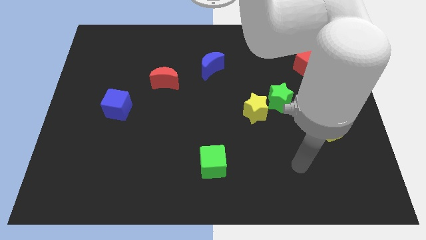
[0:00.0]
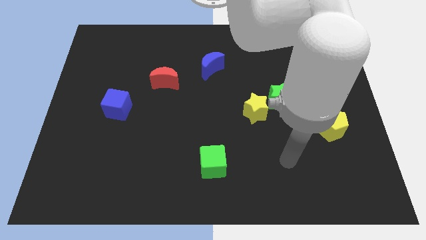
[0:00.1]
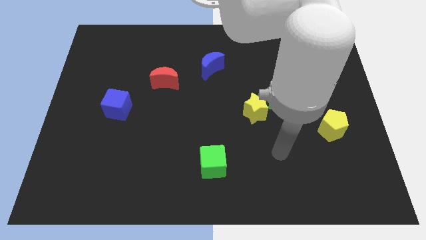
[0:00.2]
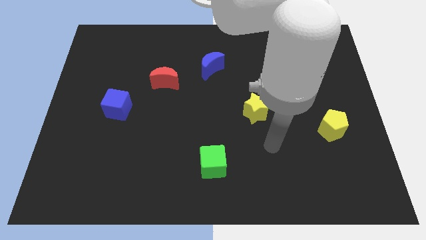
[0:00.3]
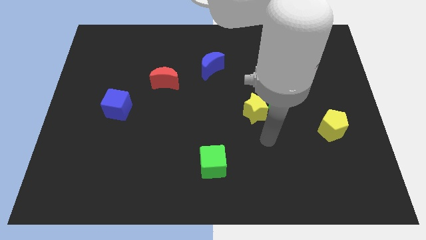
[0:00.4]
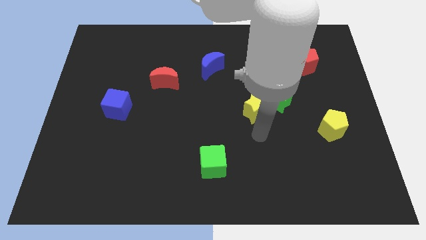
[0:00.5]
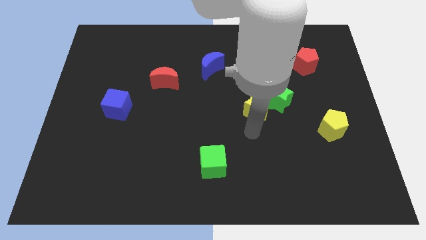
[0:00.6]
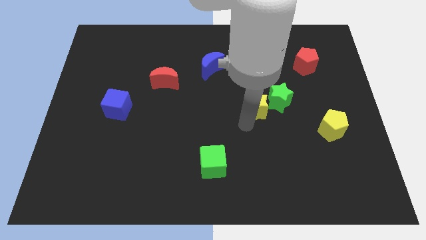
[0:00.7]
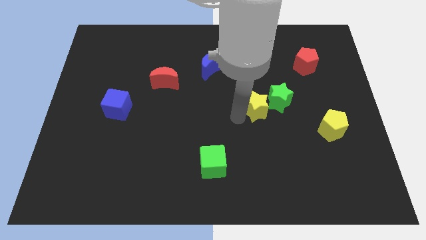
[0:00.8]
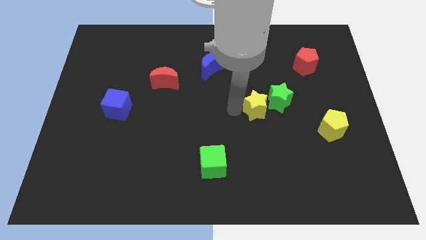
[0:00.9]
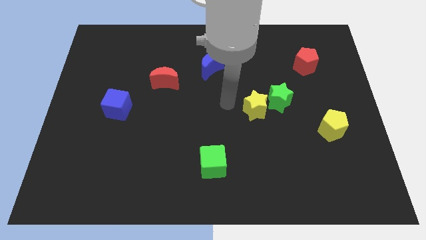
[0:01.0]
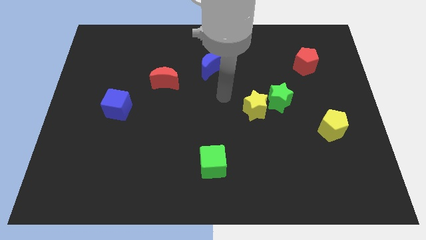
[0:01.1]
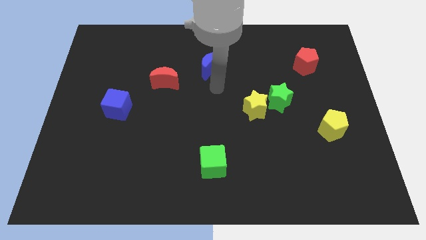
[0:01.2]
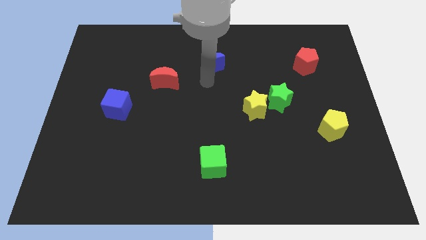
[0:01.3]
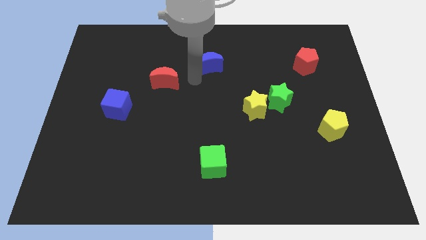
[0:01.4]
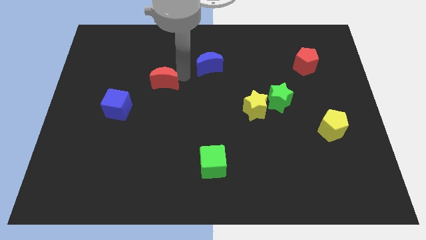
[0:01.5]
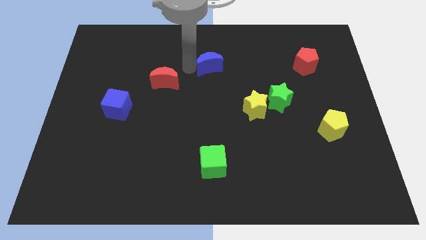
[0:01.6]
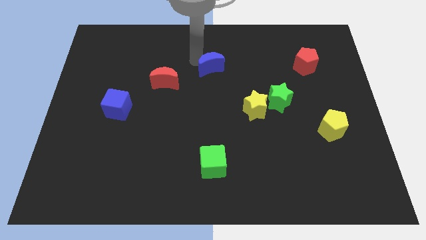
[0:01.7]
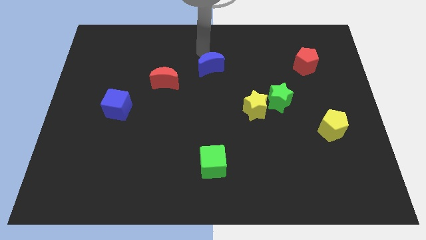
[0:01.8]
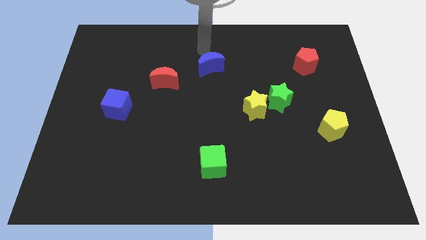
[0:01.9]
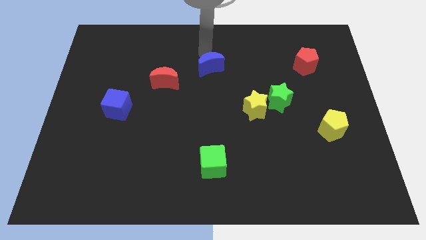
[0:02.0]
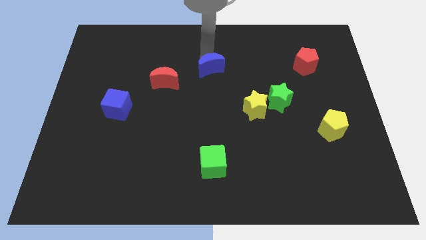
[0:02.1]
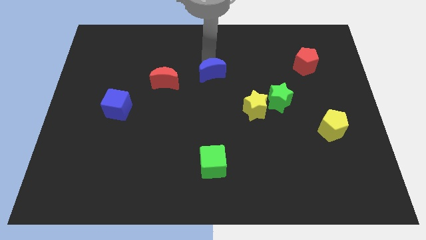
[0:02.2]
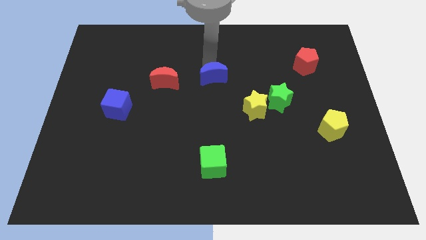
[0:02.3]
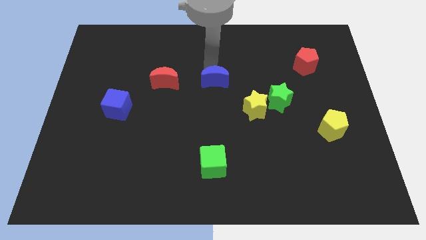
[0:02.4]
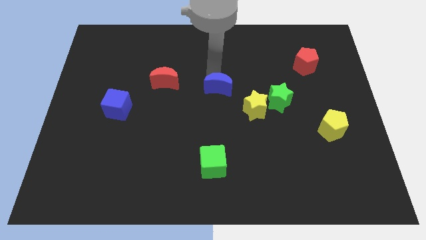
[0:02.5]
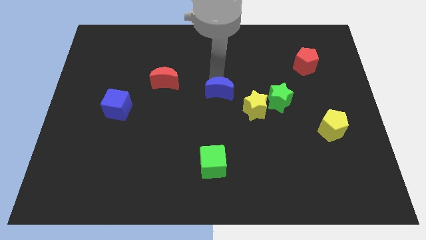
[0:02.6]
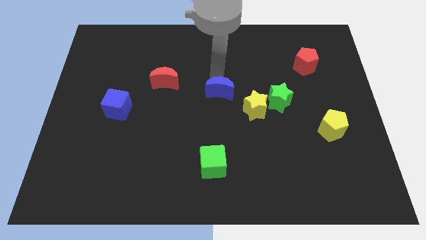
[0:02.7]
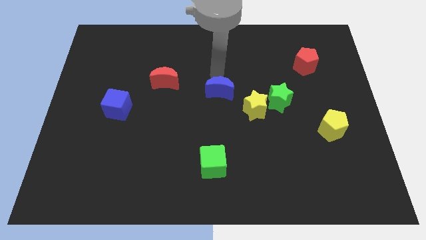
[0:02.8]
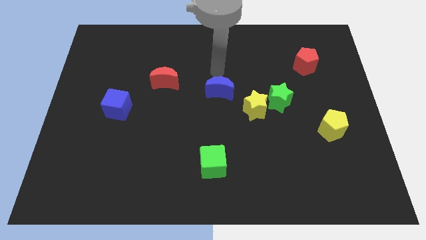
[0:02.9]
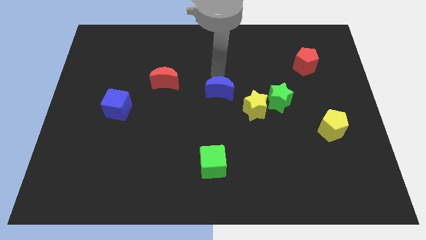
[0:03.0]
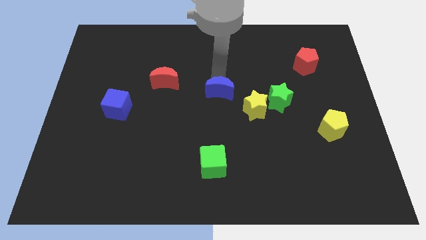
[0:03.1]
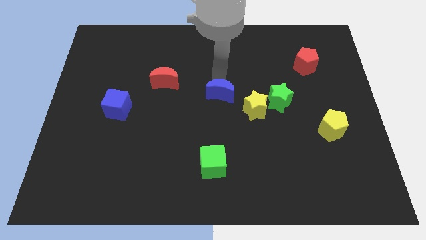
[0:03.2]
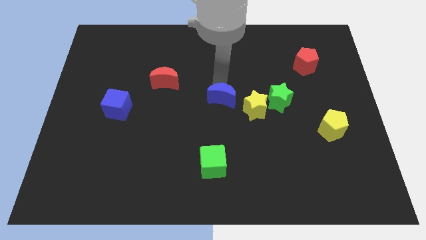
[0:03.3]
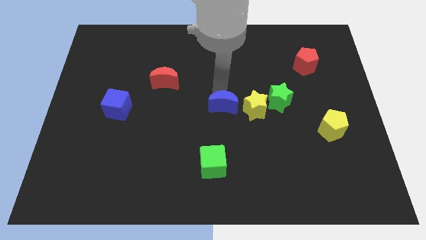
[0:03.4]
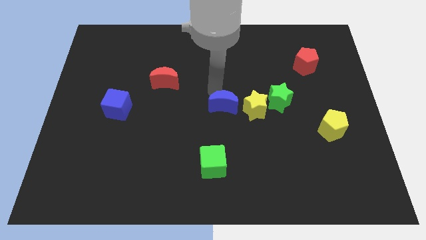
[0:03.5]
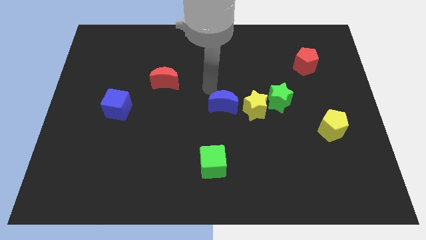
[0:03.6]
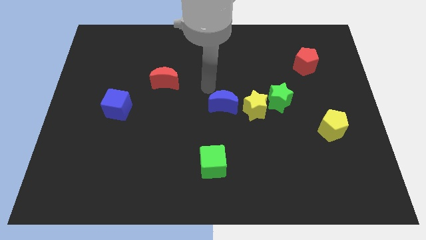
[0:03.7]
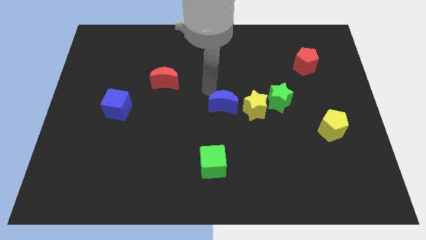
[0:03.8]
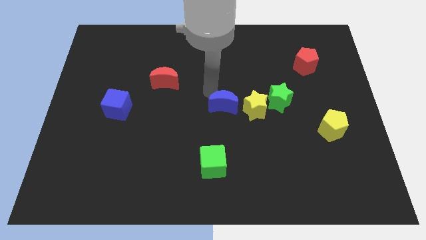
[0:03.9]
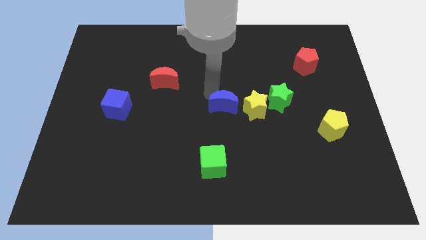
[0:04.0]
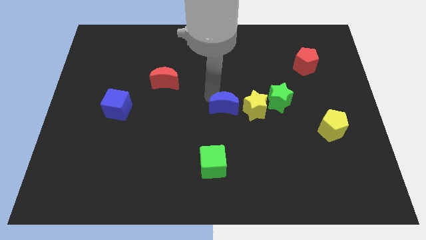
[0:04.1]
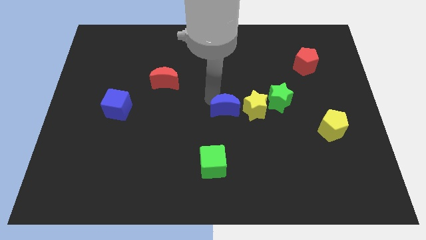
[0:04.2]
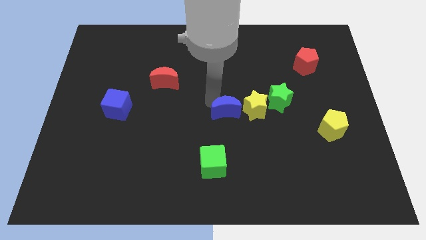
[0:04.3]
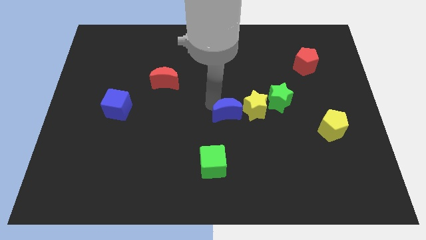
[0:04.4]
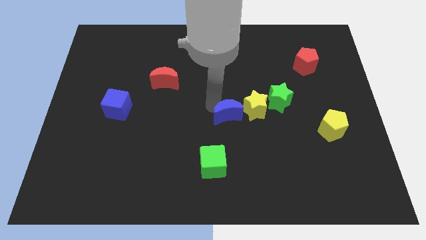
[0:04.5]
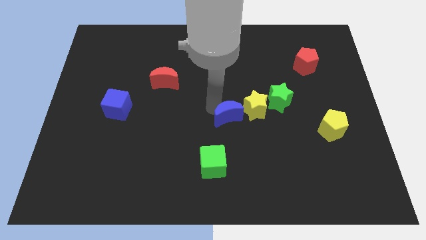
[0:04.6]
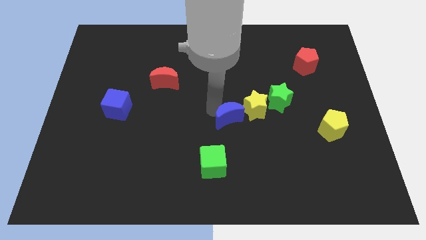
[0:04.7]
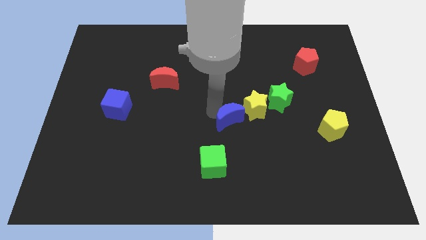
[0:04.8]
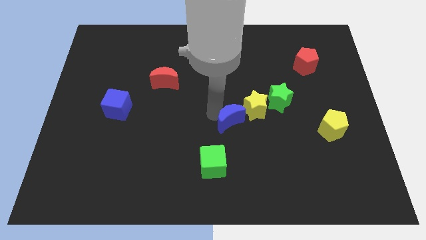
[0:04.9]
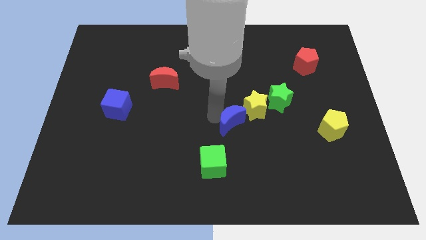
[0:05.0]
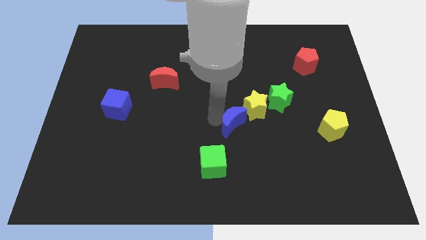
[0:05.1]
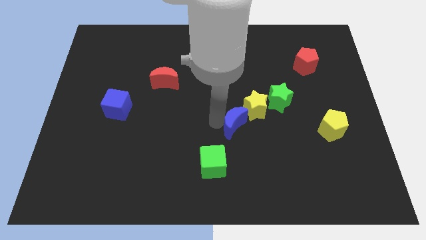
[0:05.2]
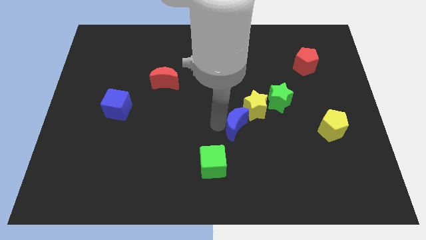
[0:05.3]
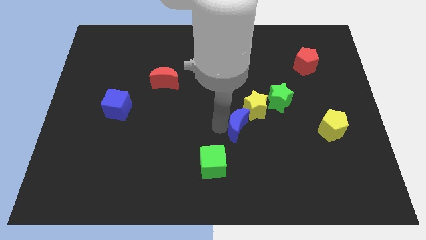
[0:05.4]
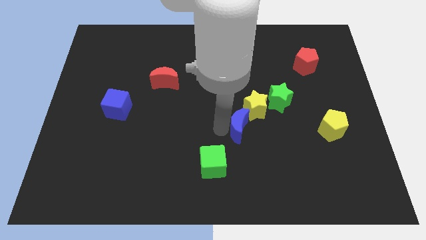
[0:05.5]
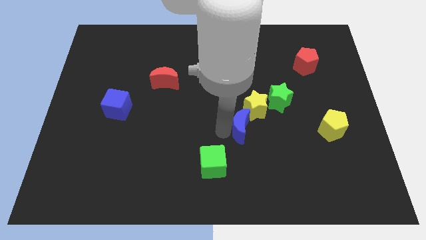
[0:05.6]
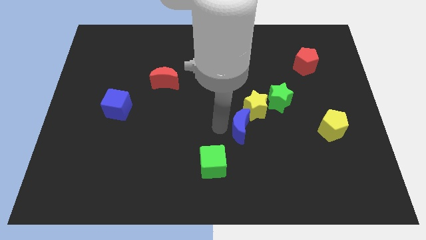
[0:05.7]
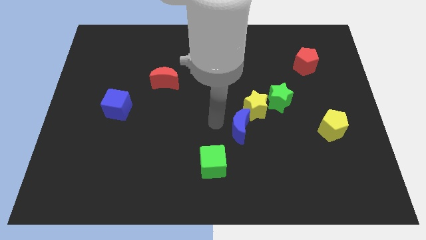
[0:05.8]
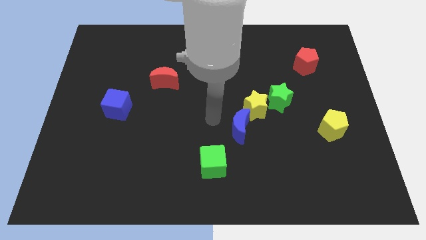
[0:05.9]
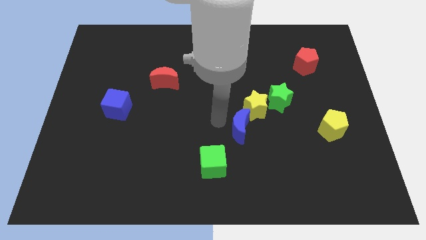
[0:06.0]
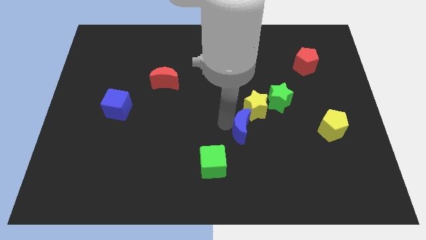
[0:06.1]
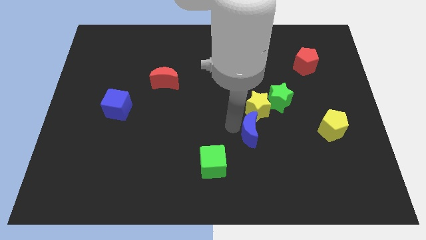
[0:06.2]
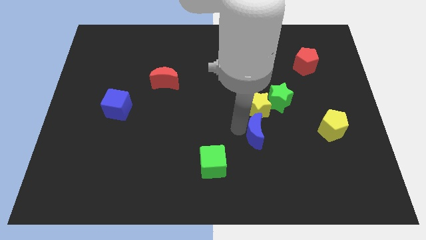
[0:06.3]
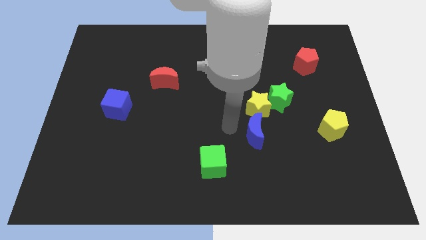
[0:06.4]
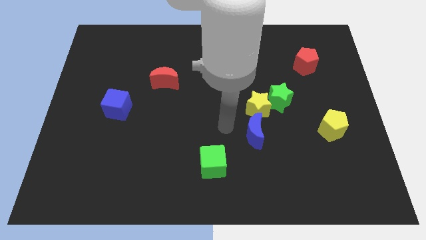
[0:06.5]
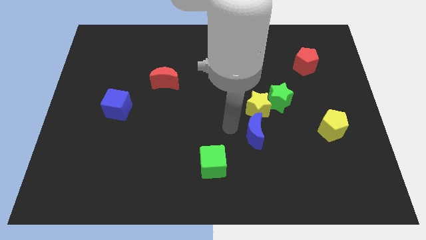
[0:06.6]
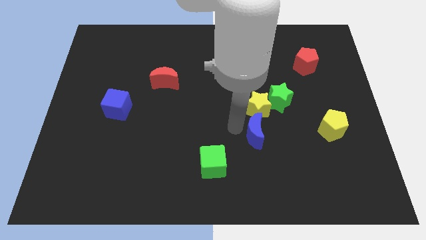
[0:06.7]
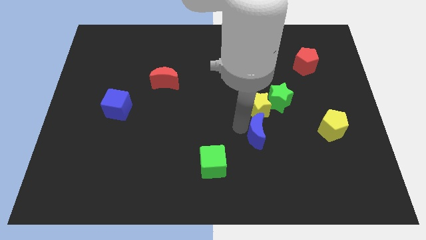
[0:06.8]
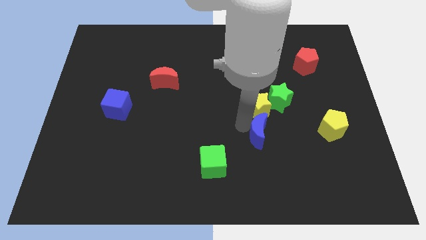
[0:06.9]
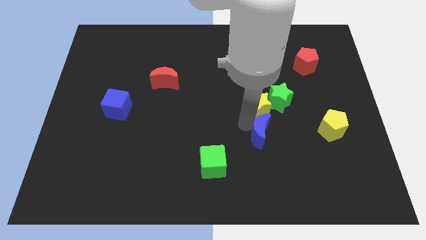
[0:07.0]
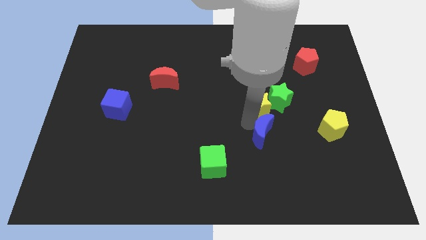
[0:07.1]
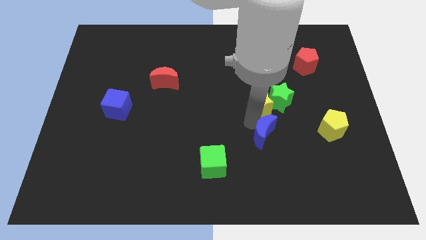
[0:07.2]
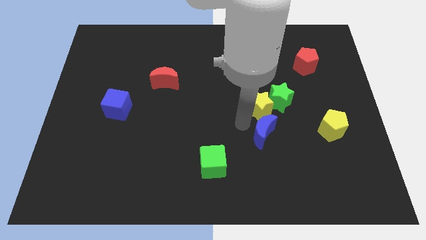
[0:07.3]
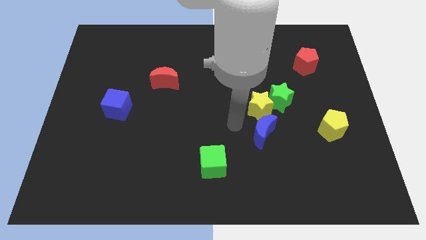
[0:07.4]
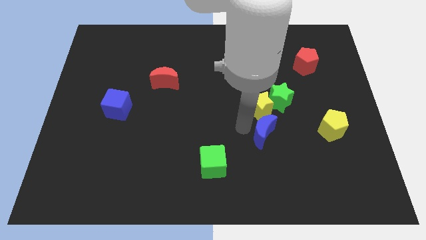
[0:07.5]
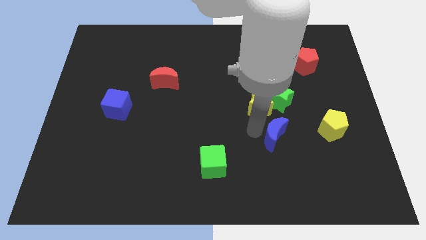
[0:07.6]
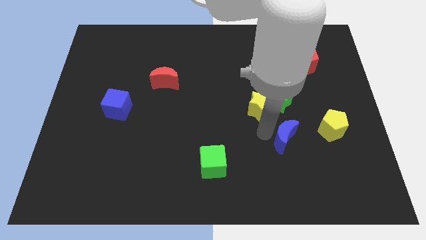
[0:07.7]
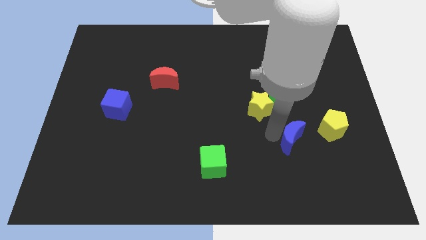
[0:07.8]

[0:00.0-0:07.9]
move the blue moon diagonally down and to the left of the yellow pentagon
